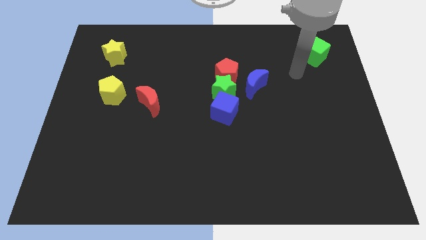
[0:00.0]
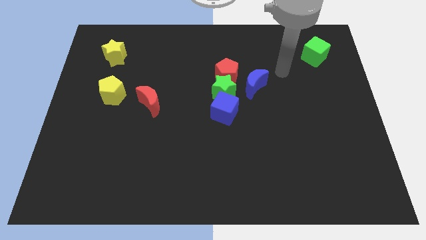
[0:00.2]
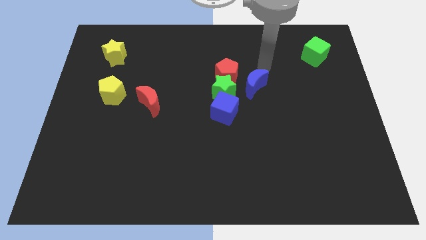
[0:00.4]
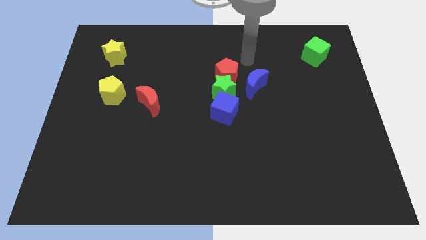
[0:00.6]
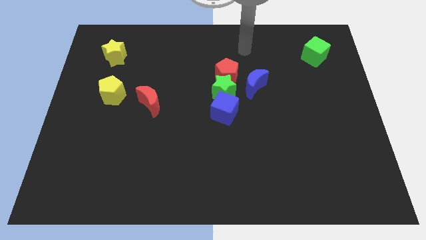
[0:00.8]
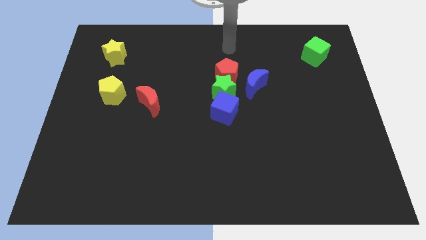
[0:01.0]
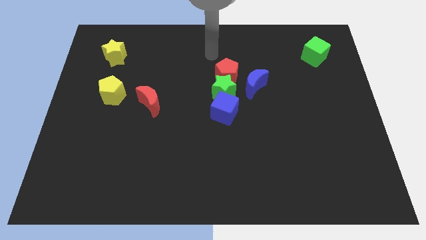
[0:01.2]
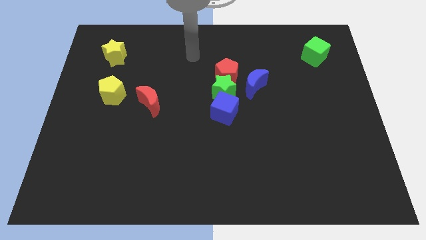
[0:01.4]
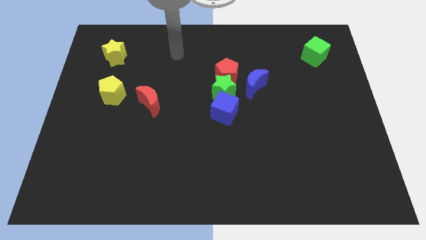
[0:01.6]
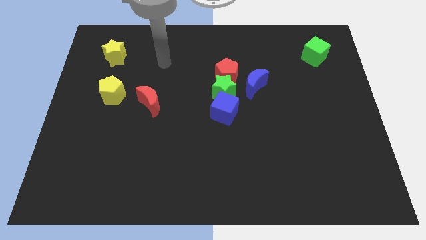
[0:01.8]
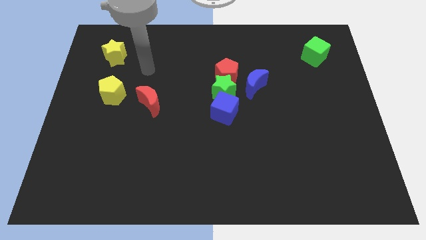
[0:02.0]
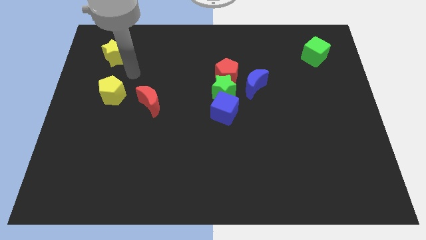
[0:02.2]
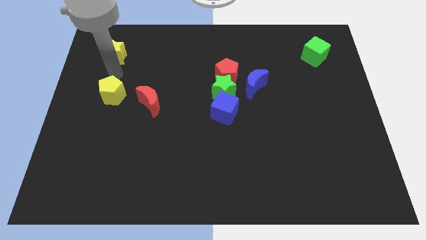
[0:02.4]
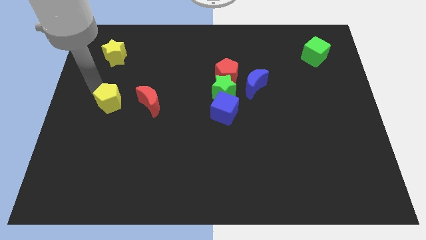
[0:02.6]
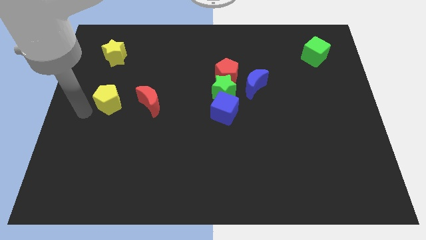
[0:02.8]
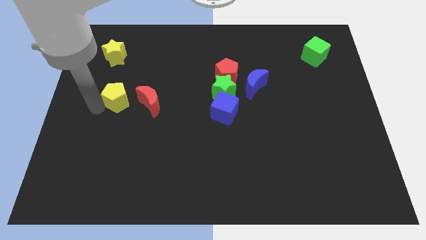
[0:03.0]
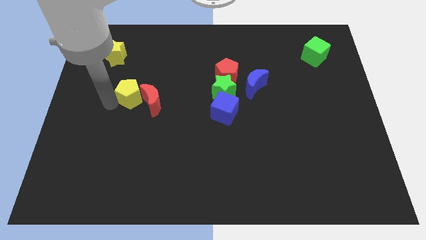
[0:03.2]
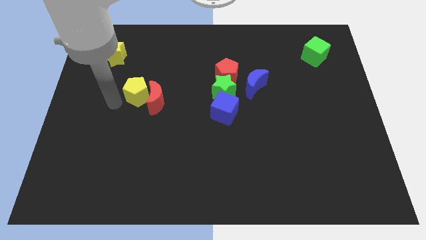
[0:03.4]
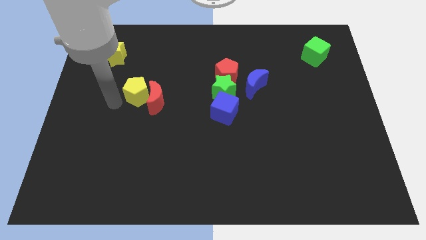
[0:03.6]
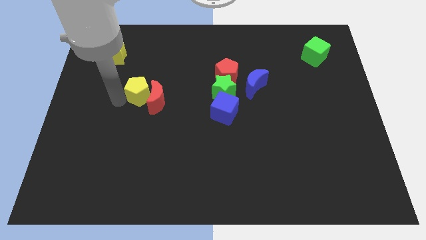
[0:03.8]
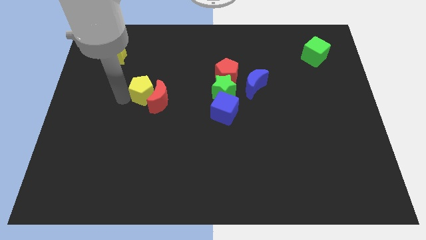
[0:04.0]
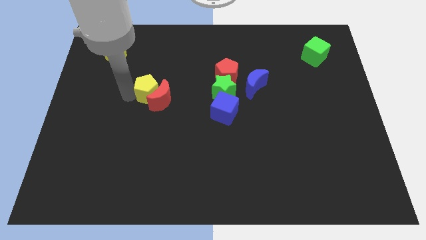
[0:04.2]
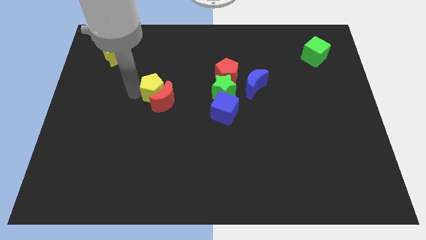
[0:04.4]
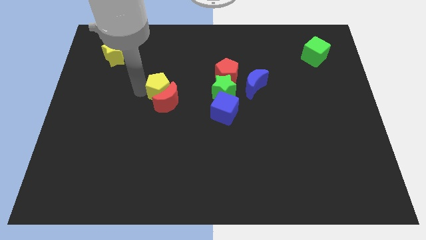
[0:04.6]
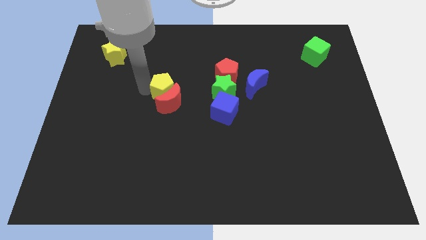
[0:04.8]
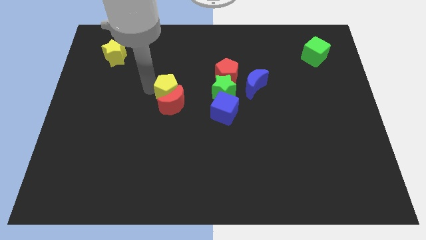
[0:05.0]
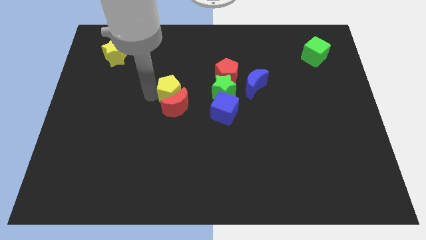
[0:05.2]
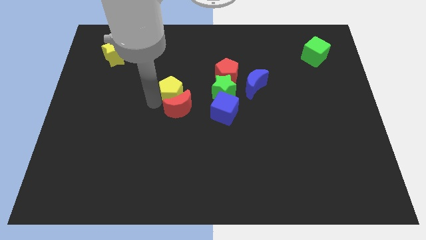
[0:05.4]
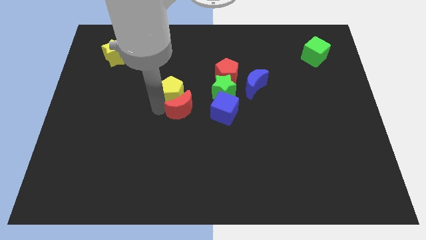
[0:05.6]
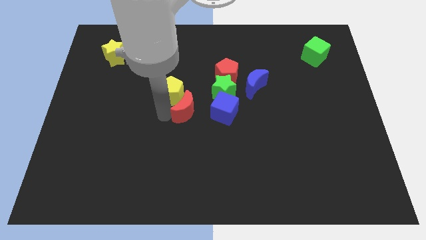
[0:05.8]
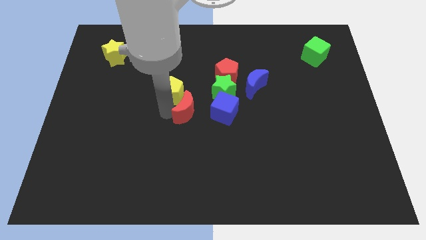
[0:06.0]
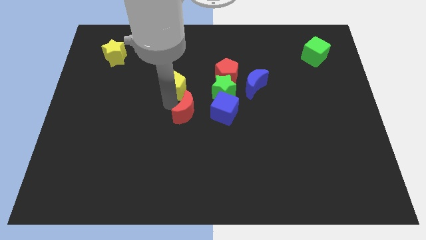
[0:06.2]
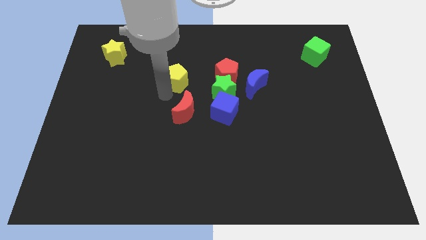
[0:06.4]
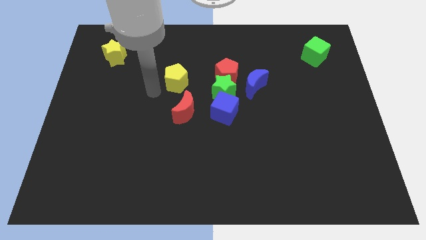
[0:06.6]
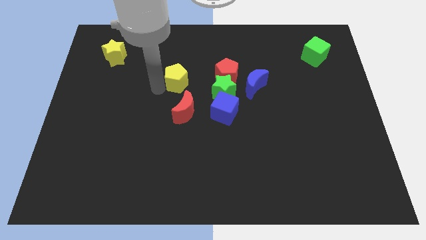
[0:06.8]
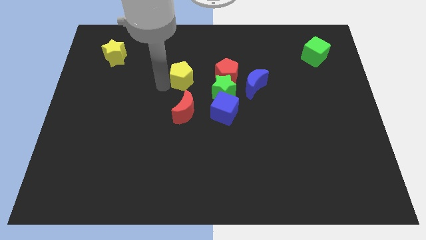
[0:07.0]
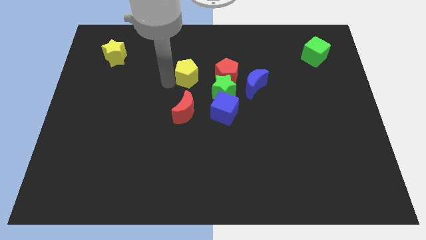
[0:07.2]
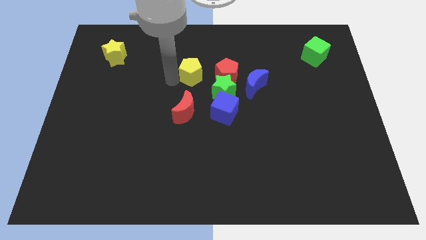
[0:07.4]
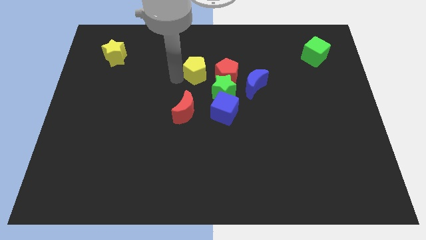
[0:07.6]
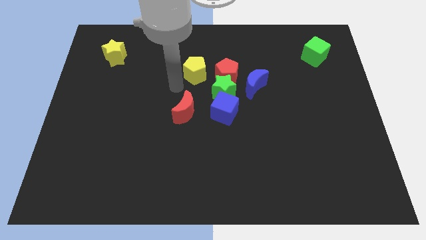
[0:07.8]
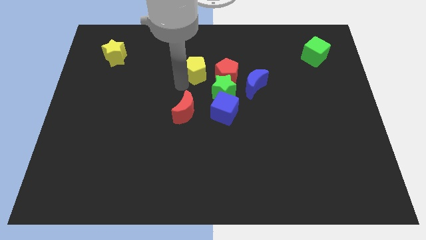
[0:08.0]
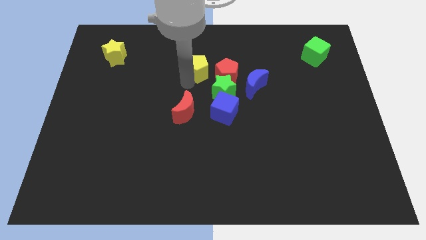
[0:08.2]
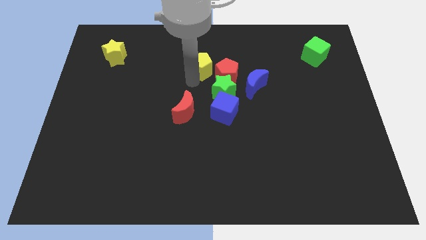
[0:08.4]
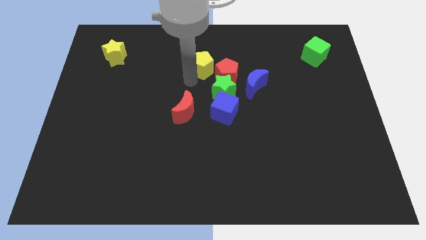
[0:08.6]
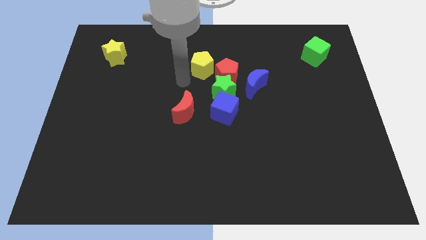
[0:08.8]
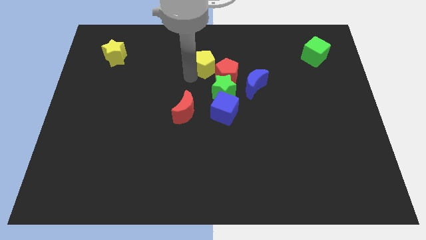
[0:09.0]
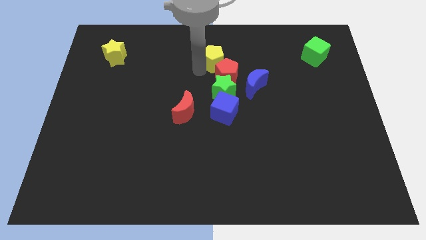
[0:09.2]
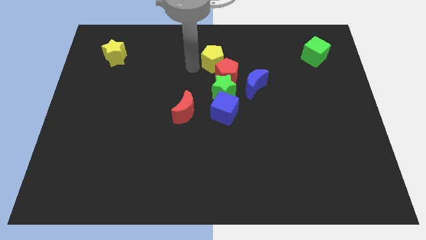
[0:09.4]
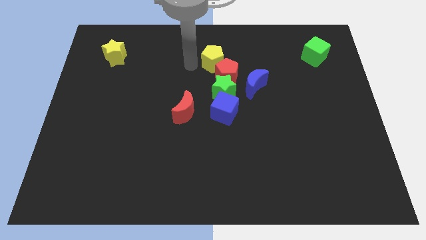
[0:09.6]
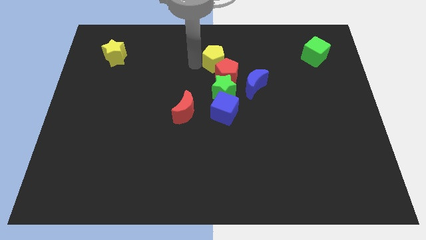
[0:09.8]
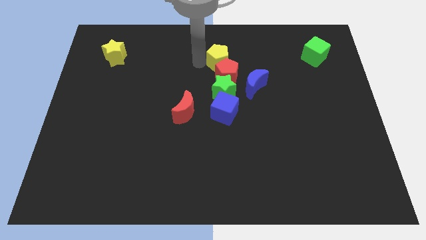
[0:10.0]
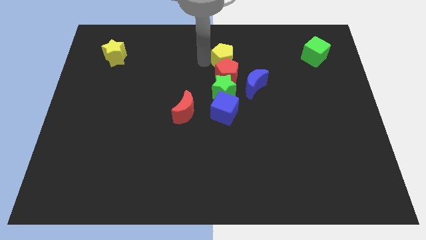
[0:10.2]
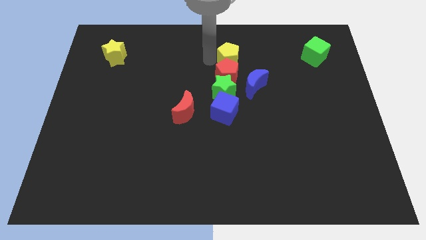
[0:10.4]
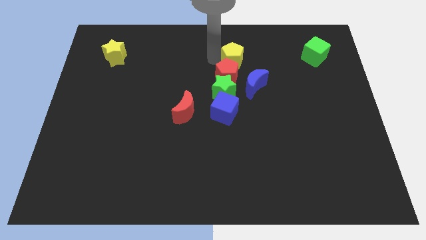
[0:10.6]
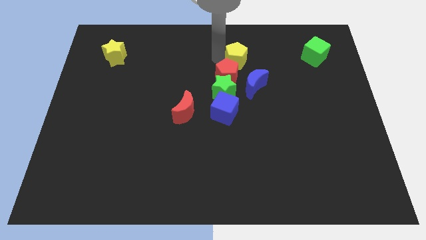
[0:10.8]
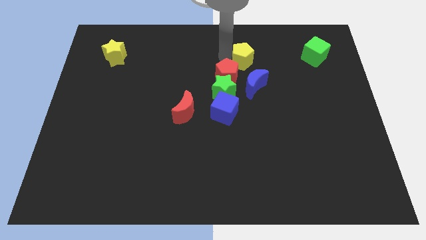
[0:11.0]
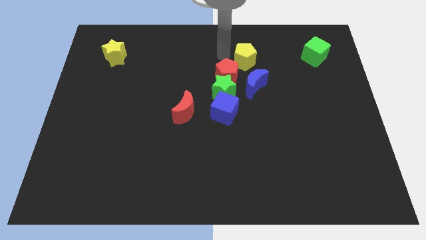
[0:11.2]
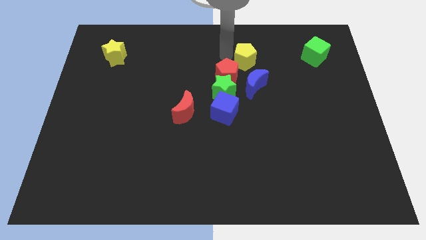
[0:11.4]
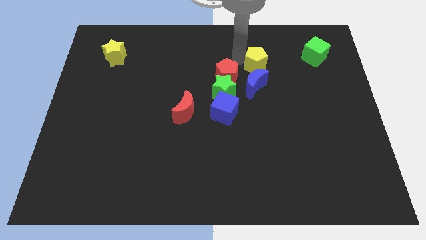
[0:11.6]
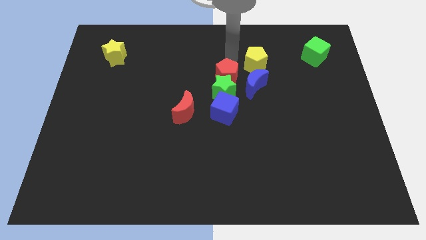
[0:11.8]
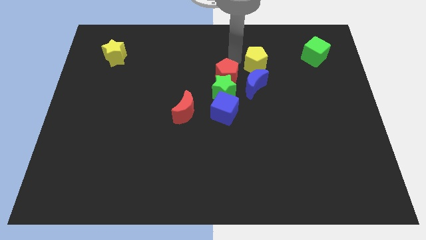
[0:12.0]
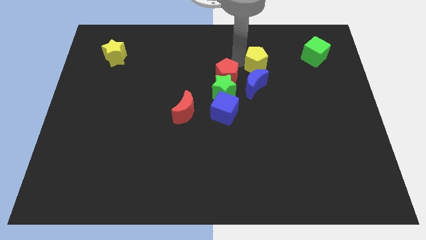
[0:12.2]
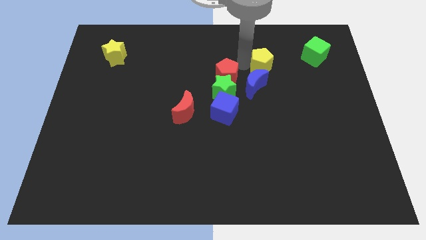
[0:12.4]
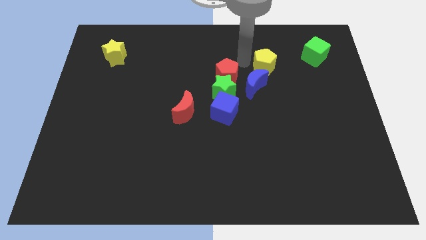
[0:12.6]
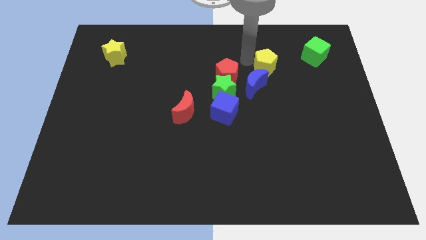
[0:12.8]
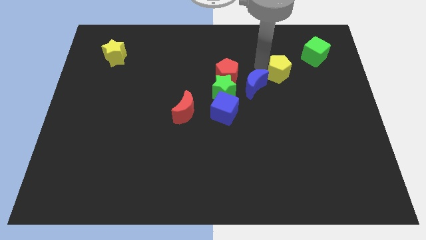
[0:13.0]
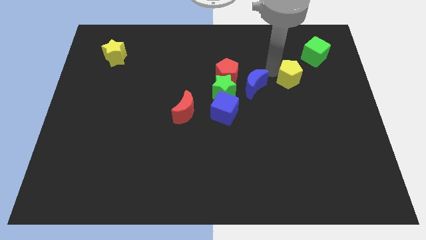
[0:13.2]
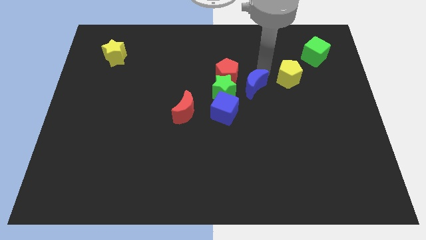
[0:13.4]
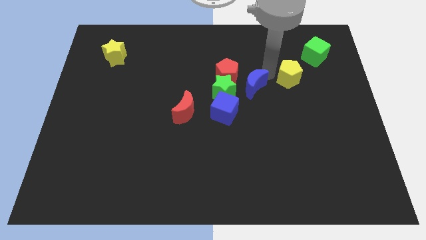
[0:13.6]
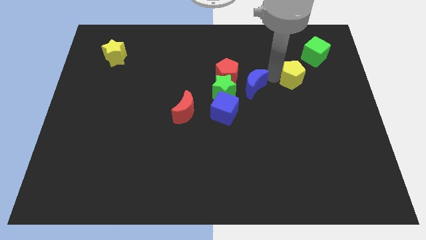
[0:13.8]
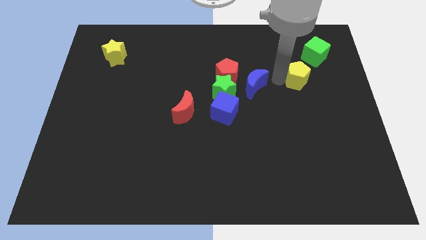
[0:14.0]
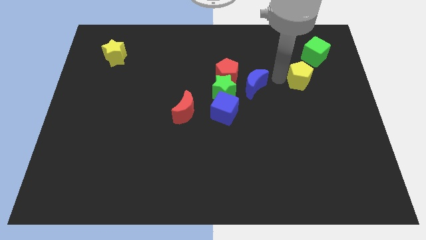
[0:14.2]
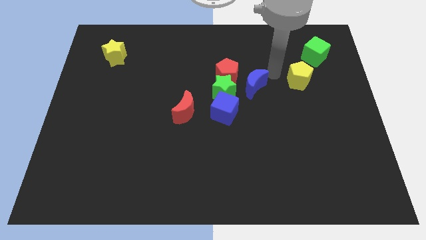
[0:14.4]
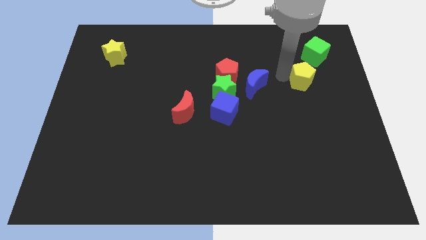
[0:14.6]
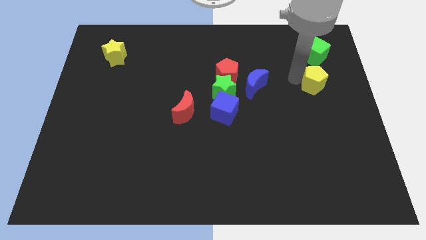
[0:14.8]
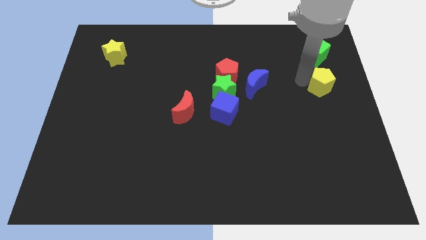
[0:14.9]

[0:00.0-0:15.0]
move the yellow pentagon to the right side of the board
